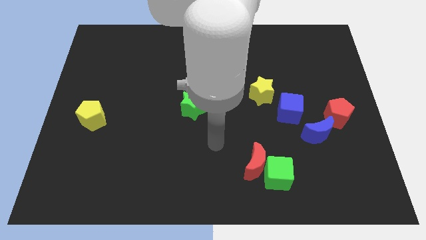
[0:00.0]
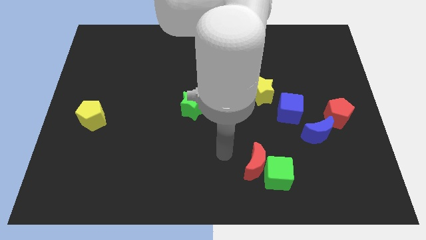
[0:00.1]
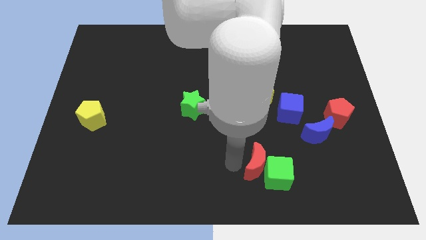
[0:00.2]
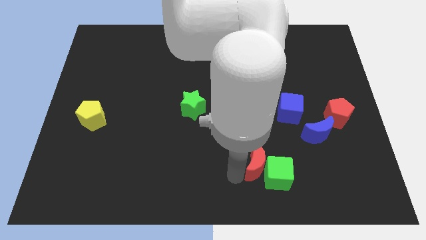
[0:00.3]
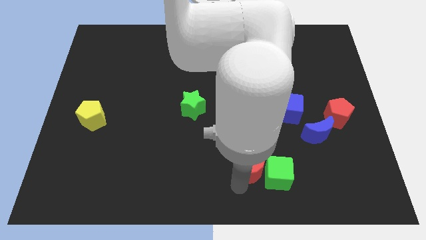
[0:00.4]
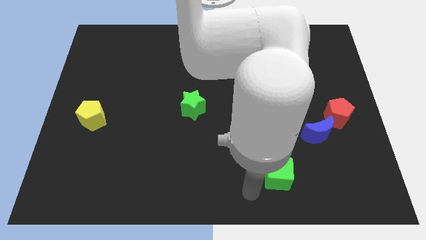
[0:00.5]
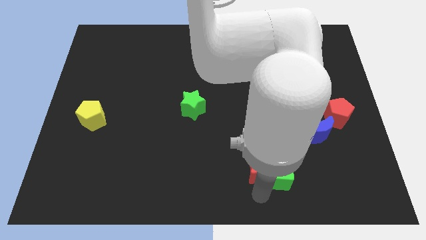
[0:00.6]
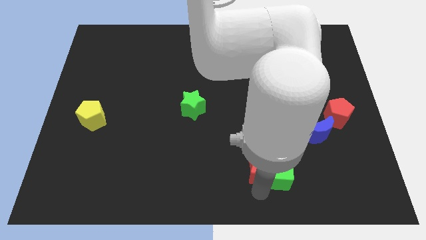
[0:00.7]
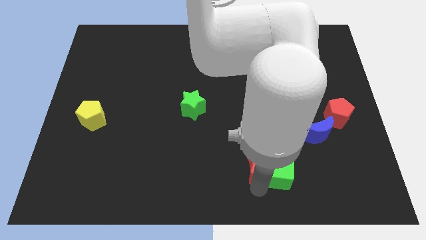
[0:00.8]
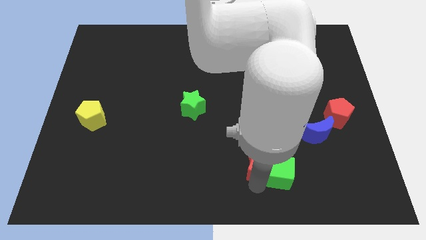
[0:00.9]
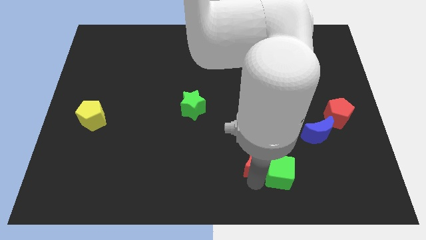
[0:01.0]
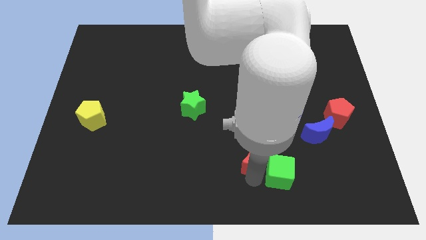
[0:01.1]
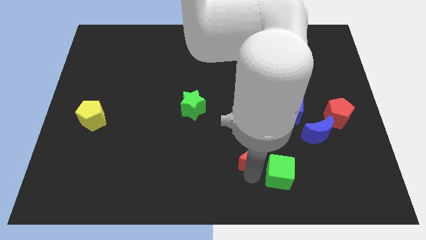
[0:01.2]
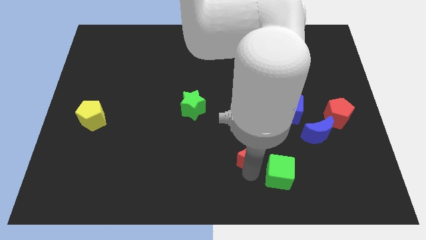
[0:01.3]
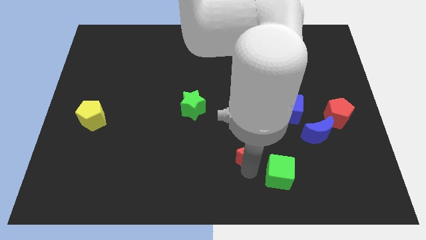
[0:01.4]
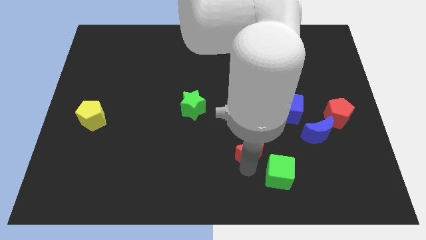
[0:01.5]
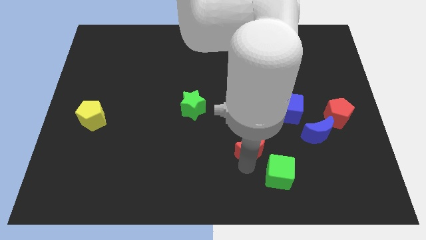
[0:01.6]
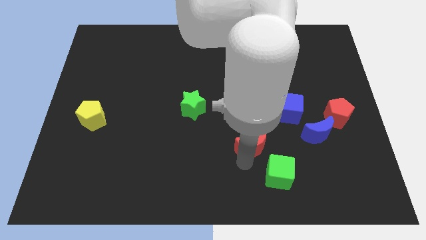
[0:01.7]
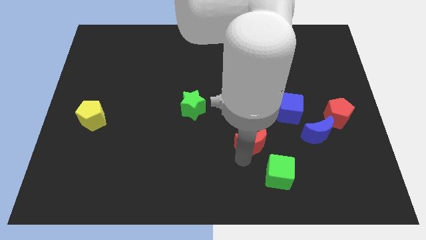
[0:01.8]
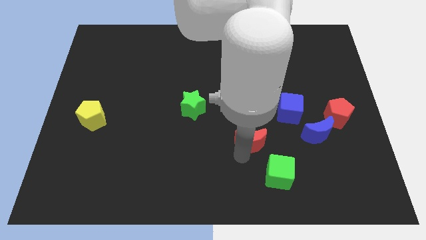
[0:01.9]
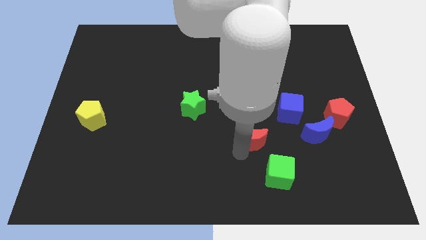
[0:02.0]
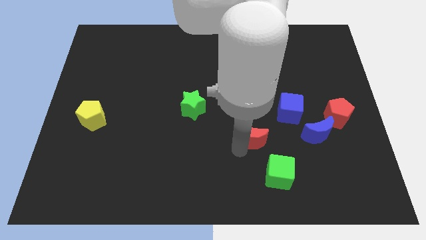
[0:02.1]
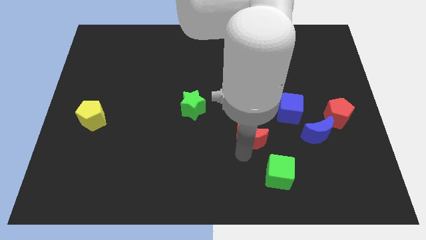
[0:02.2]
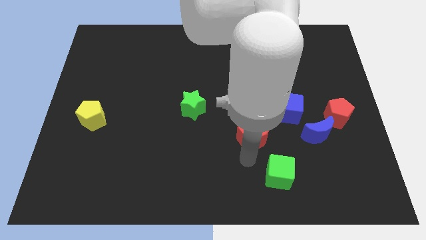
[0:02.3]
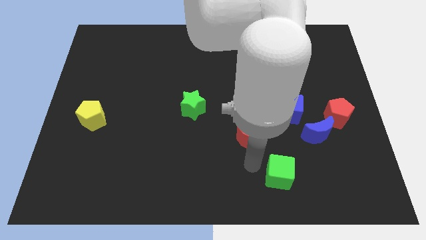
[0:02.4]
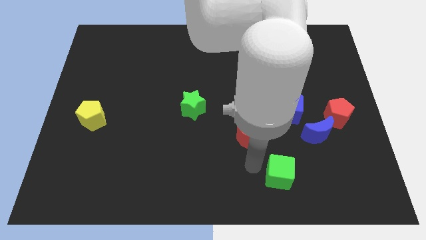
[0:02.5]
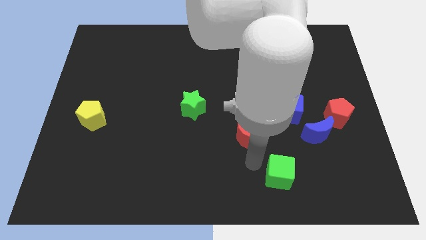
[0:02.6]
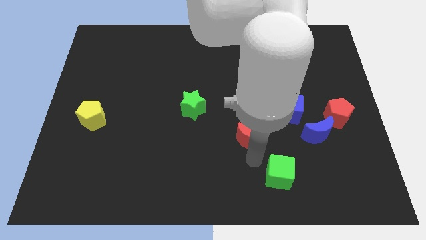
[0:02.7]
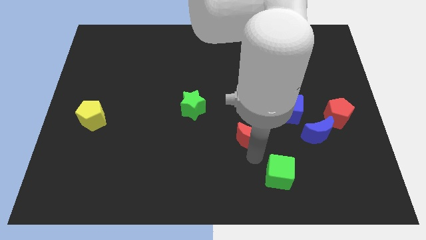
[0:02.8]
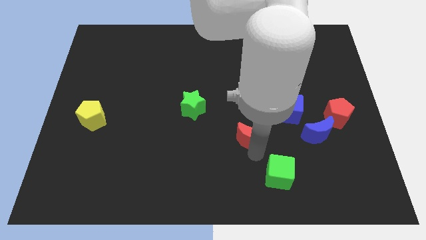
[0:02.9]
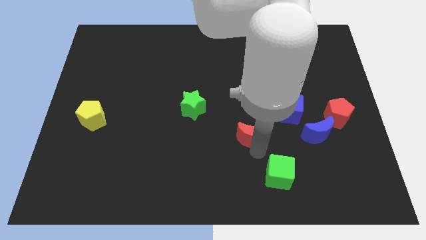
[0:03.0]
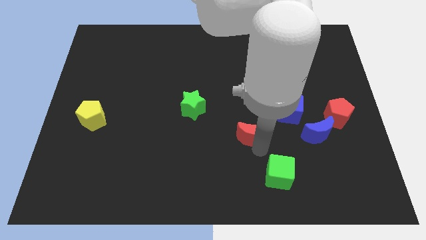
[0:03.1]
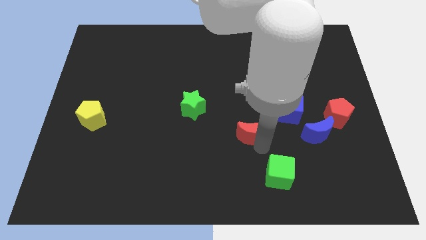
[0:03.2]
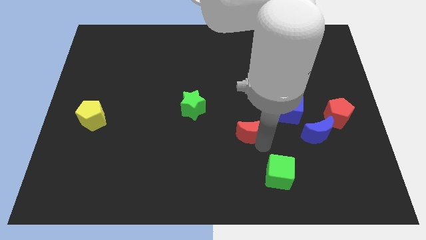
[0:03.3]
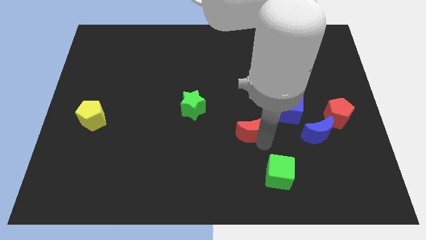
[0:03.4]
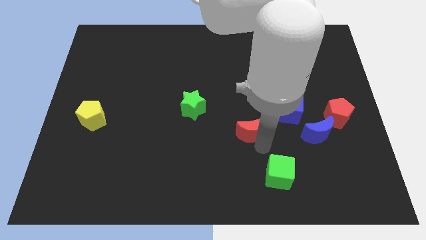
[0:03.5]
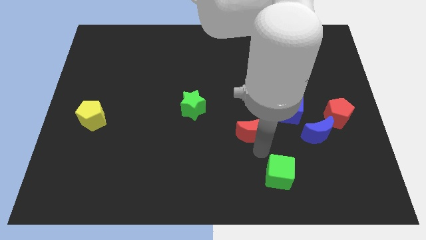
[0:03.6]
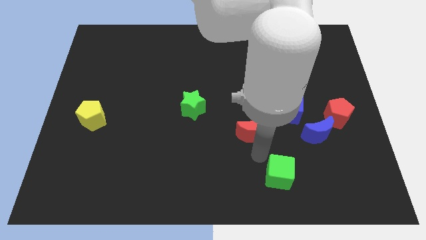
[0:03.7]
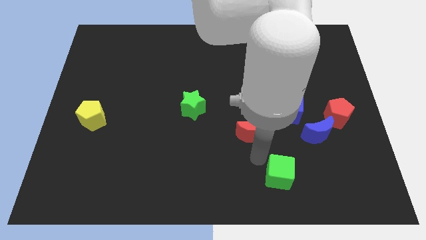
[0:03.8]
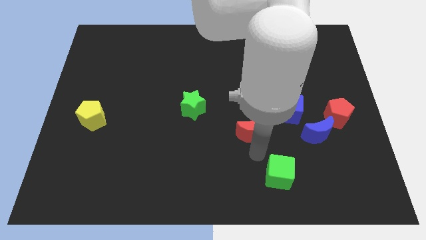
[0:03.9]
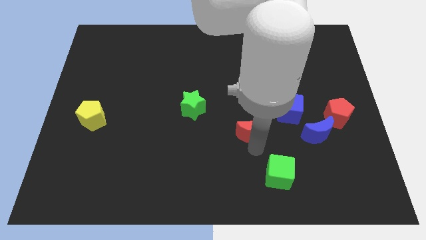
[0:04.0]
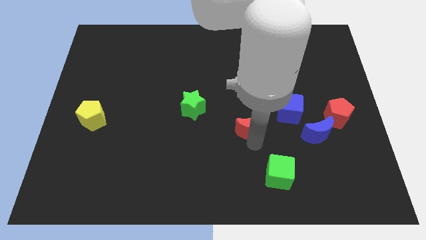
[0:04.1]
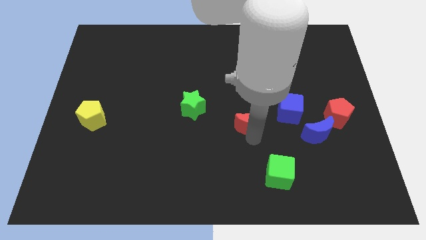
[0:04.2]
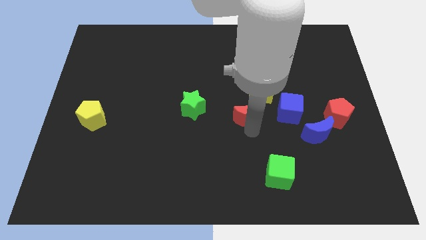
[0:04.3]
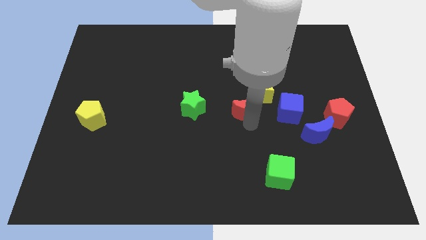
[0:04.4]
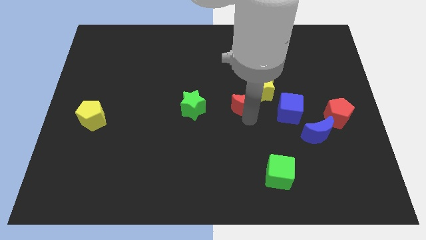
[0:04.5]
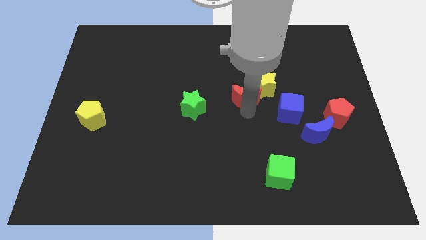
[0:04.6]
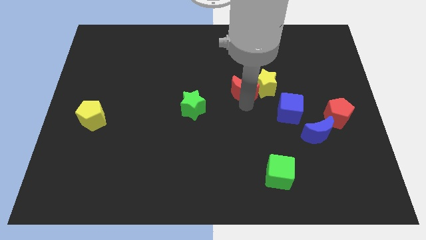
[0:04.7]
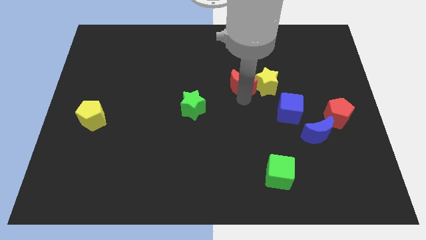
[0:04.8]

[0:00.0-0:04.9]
push the red moon diagonally up and to the left of the yellow star

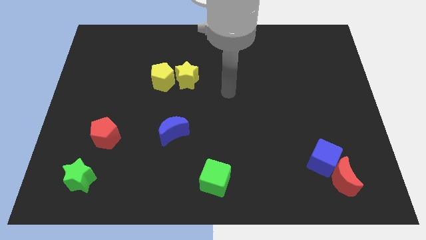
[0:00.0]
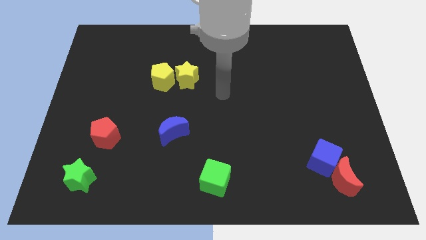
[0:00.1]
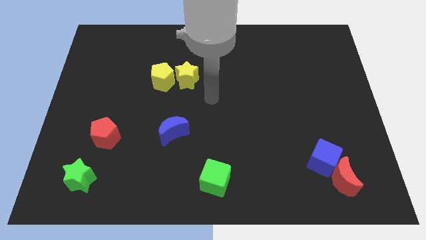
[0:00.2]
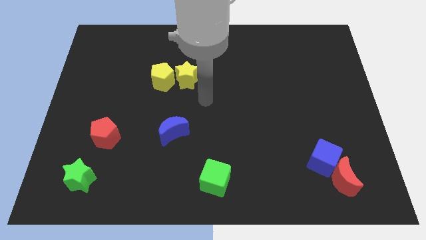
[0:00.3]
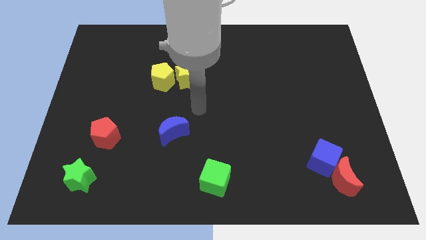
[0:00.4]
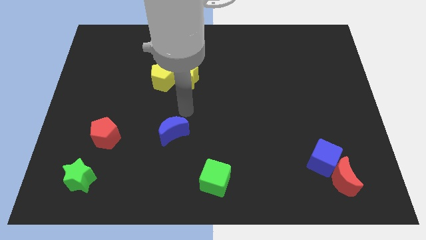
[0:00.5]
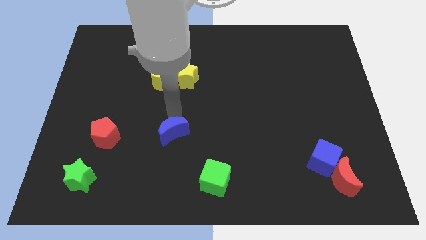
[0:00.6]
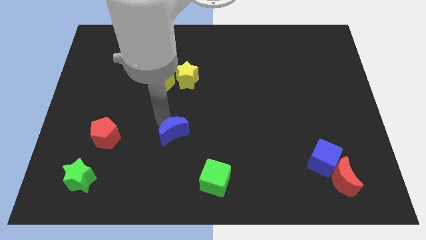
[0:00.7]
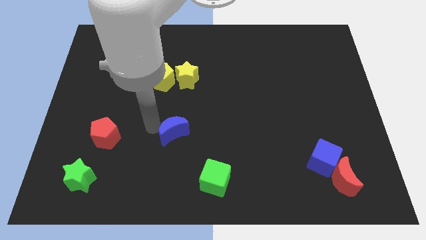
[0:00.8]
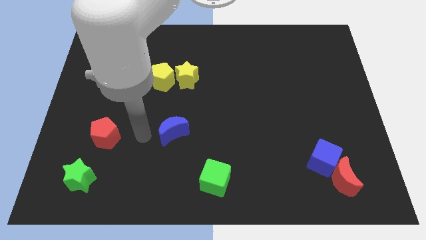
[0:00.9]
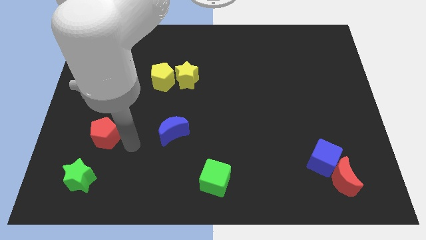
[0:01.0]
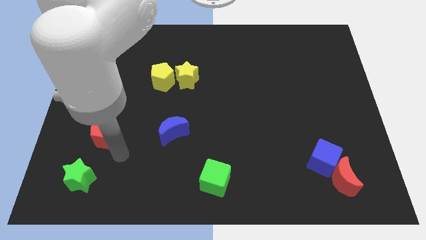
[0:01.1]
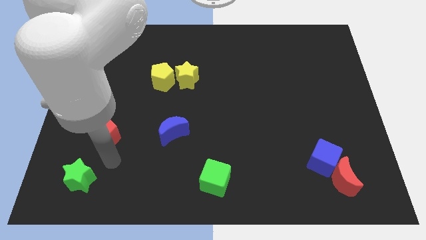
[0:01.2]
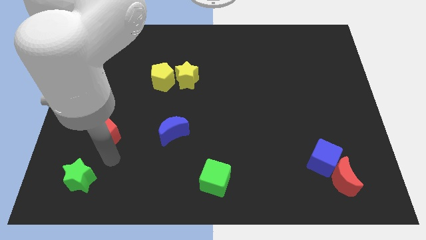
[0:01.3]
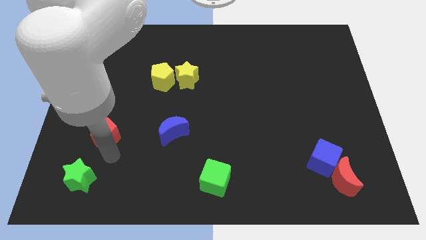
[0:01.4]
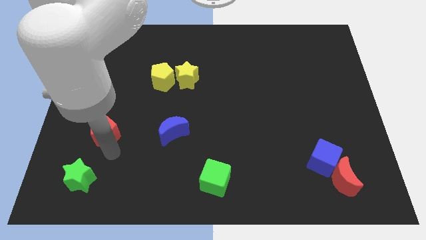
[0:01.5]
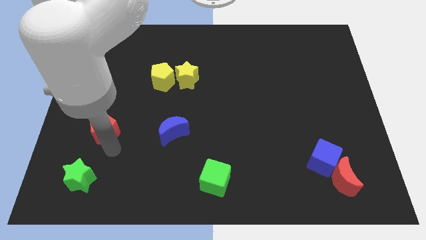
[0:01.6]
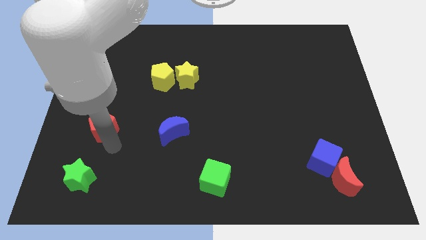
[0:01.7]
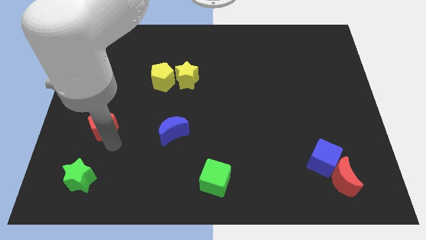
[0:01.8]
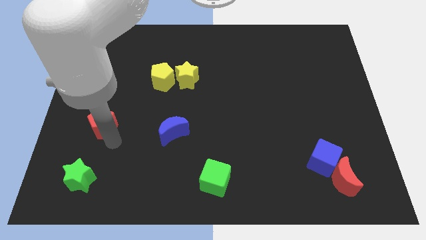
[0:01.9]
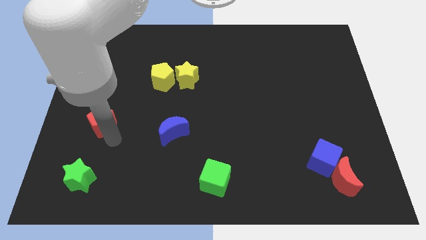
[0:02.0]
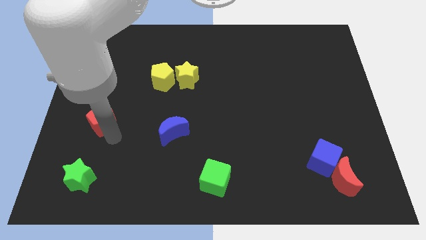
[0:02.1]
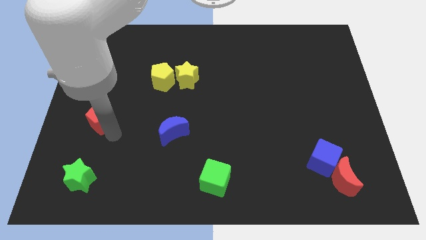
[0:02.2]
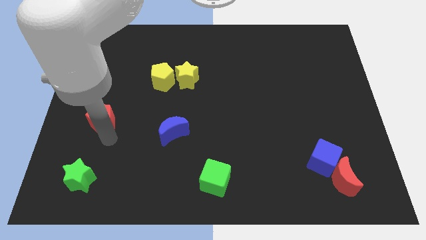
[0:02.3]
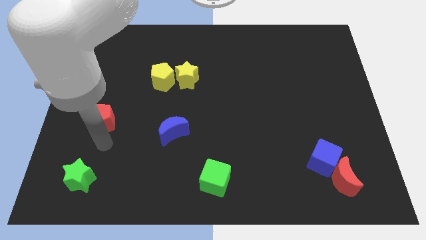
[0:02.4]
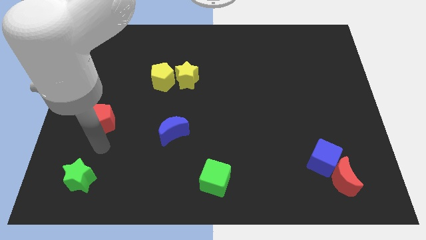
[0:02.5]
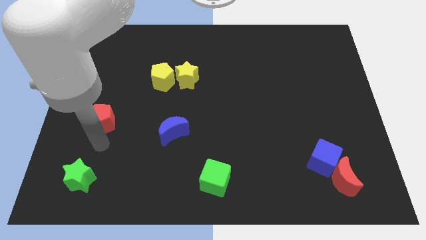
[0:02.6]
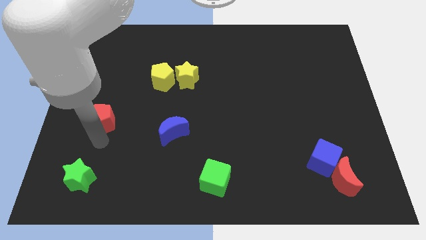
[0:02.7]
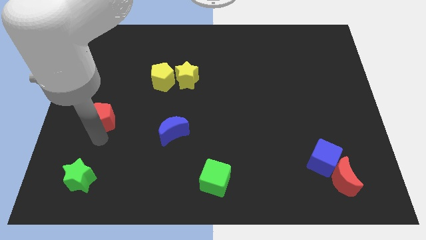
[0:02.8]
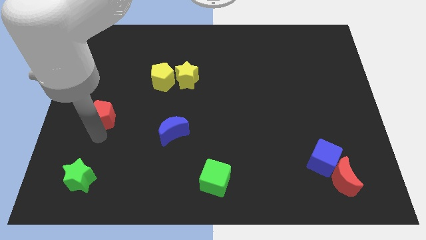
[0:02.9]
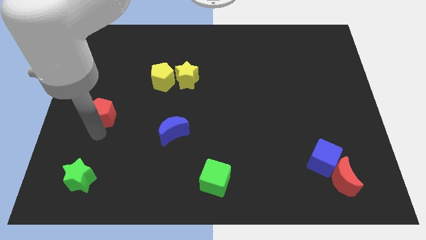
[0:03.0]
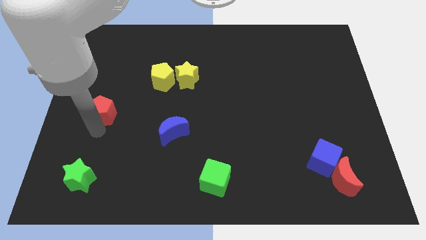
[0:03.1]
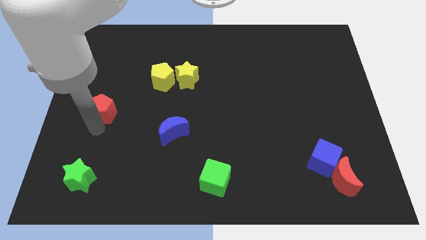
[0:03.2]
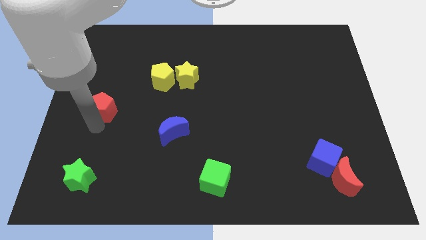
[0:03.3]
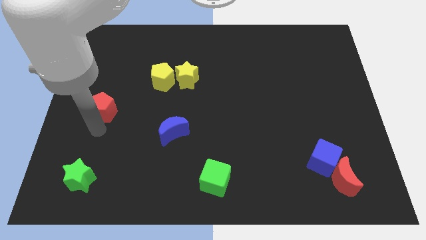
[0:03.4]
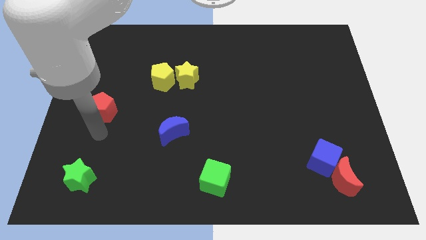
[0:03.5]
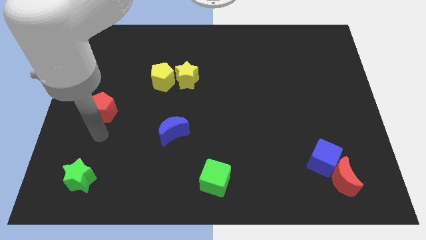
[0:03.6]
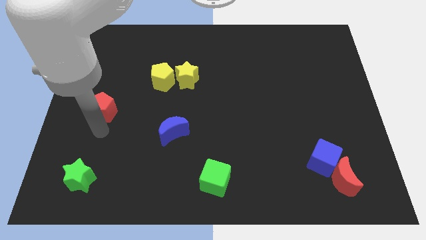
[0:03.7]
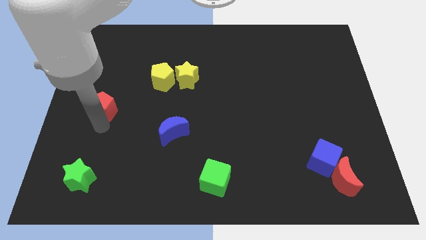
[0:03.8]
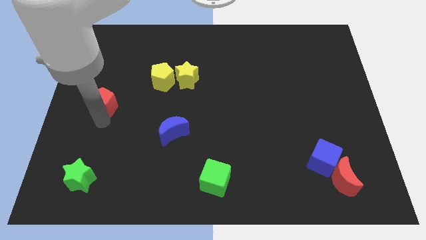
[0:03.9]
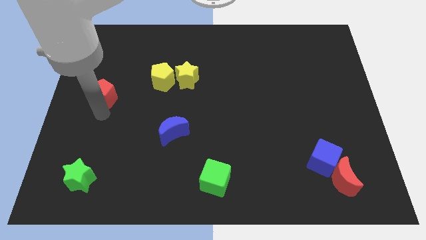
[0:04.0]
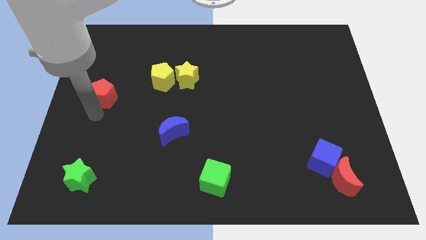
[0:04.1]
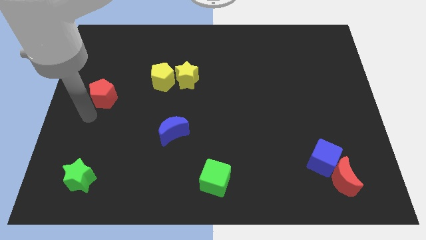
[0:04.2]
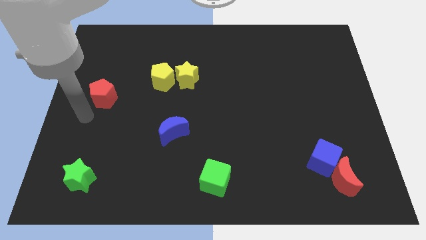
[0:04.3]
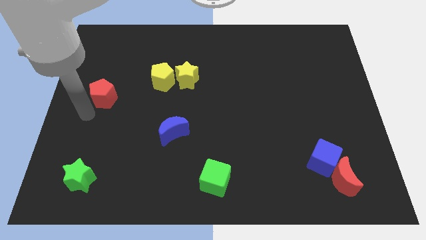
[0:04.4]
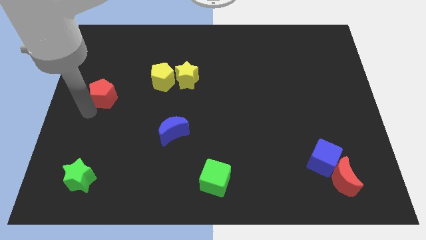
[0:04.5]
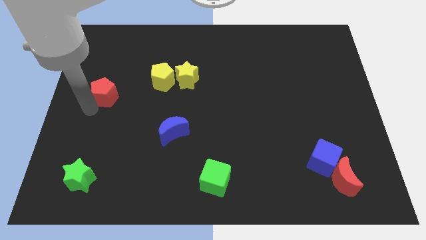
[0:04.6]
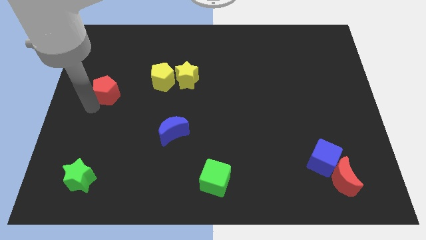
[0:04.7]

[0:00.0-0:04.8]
move the red pentagon left of the yellow pentagon
